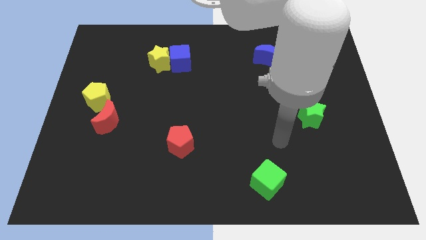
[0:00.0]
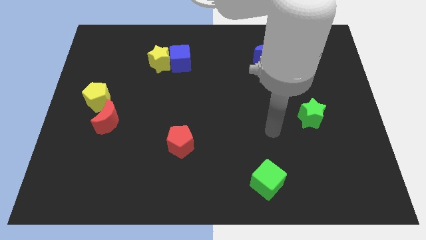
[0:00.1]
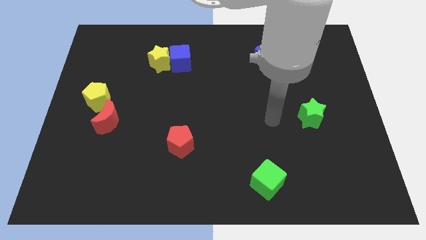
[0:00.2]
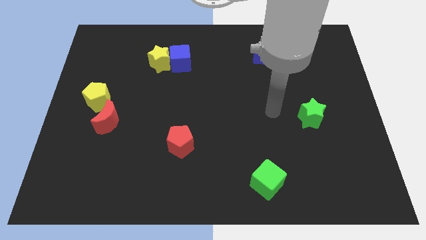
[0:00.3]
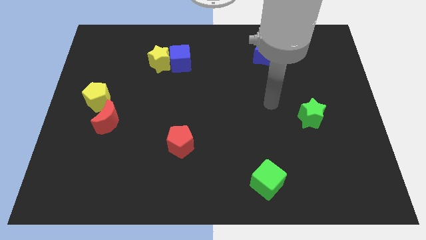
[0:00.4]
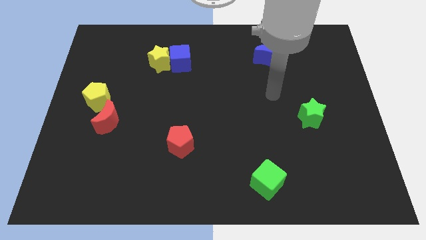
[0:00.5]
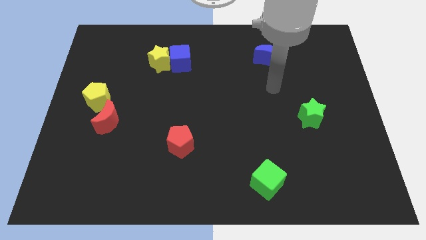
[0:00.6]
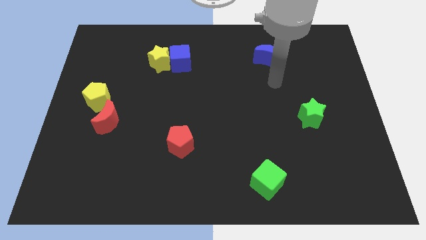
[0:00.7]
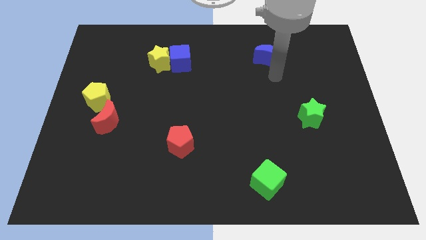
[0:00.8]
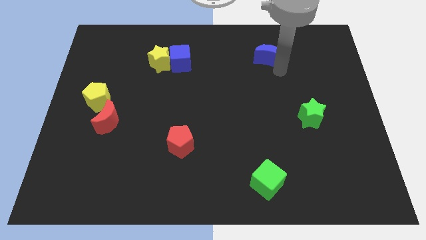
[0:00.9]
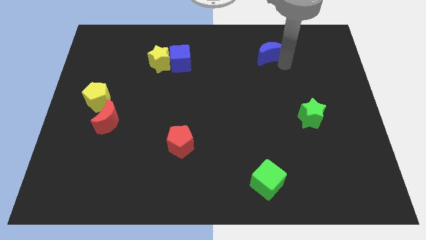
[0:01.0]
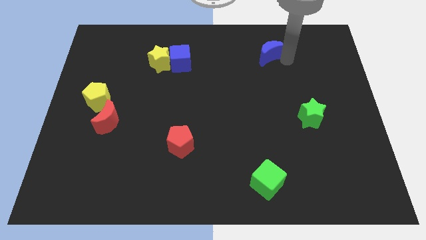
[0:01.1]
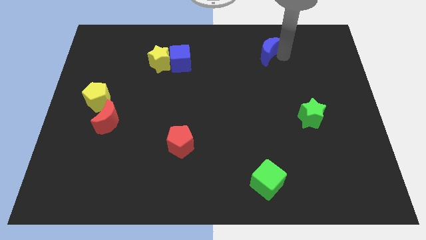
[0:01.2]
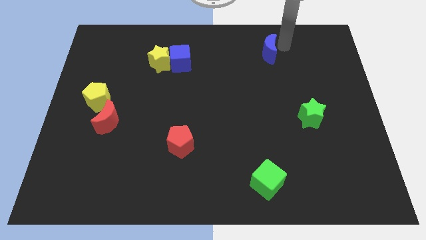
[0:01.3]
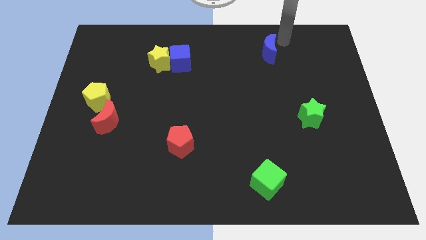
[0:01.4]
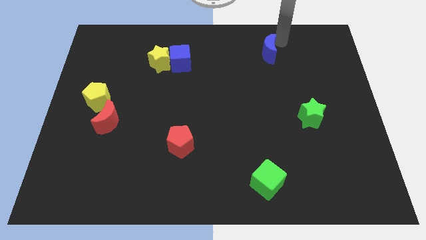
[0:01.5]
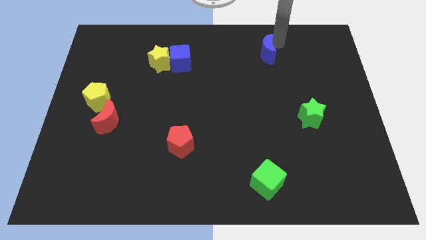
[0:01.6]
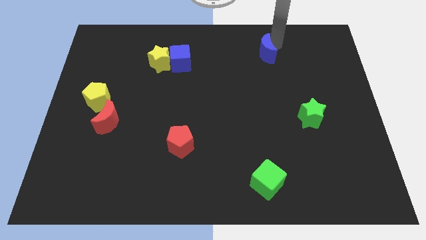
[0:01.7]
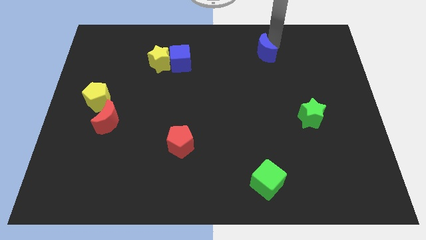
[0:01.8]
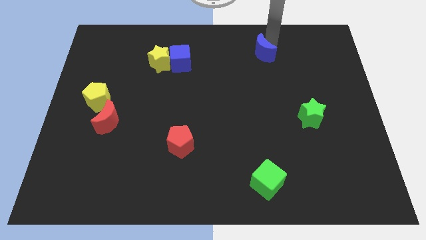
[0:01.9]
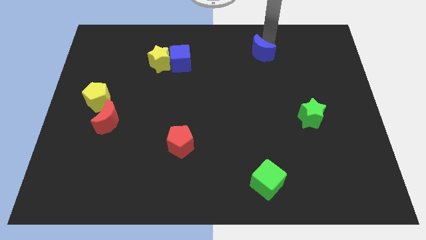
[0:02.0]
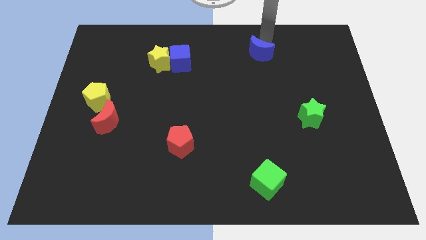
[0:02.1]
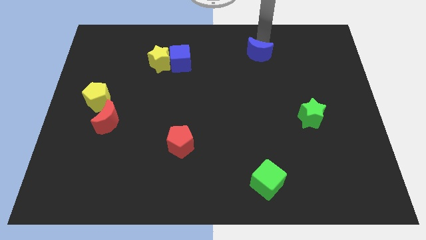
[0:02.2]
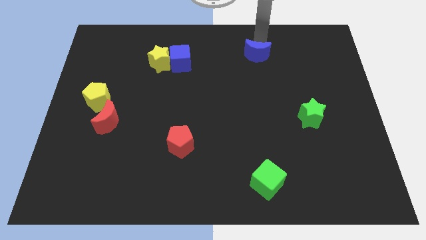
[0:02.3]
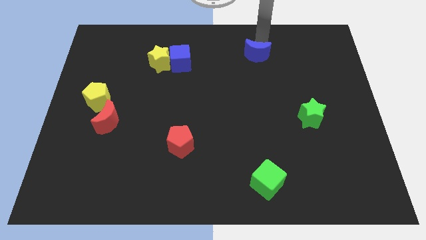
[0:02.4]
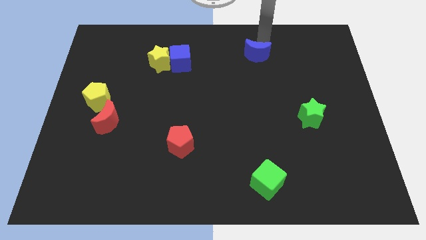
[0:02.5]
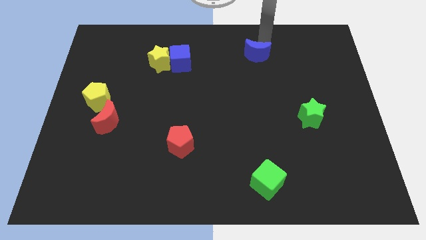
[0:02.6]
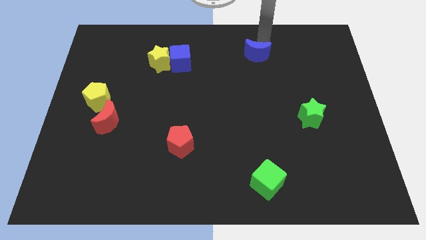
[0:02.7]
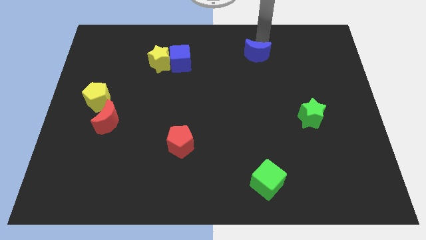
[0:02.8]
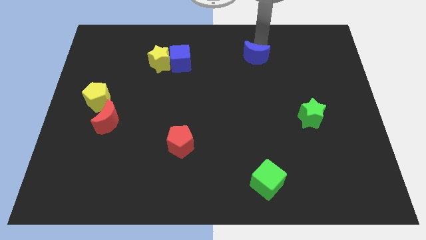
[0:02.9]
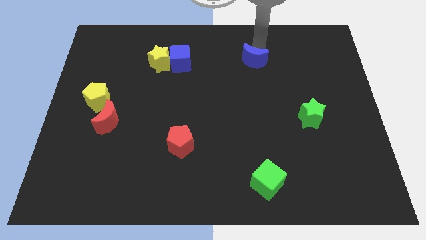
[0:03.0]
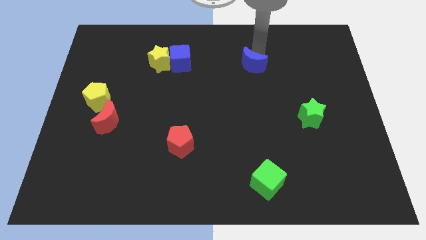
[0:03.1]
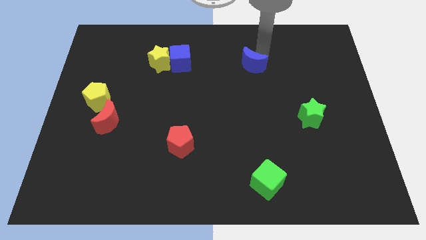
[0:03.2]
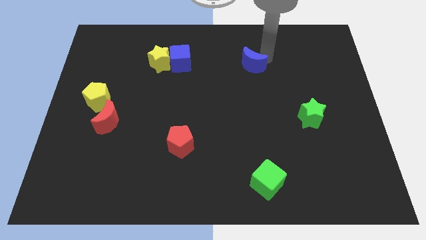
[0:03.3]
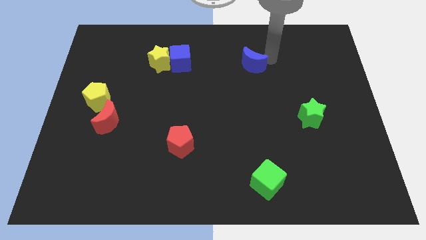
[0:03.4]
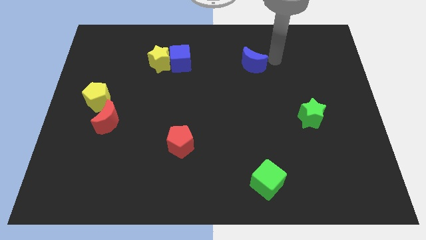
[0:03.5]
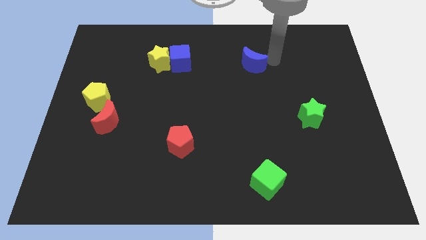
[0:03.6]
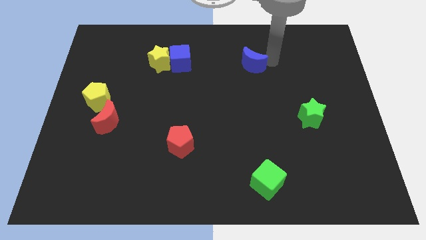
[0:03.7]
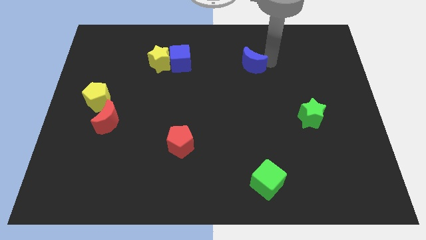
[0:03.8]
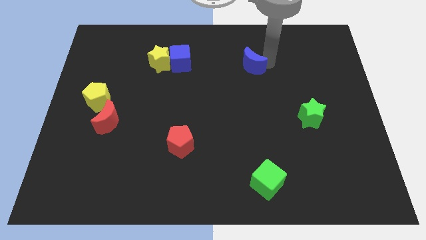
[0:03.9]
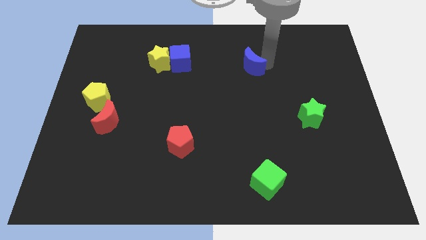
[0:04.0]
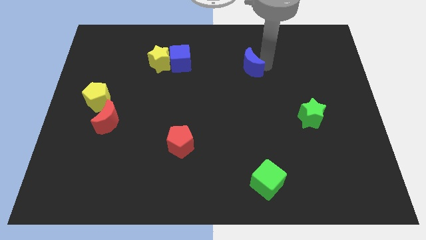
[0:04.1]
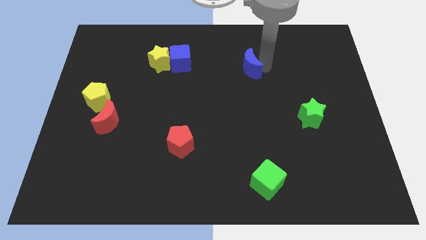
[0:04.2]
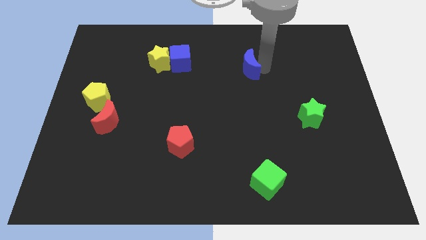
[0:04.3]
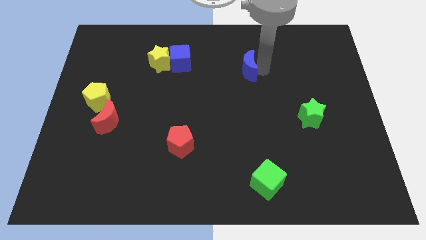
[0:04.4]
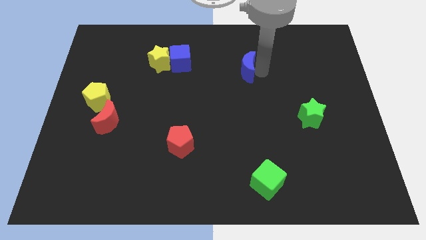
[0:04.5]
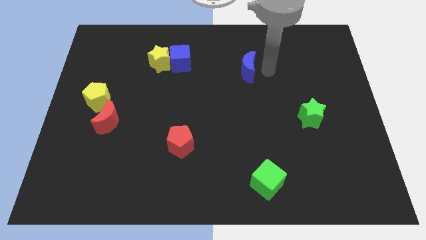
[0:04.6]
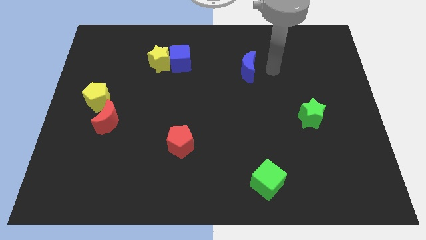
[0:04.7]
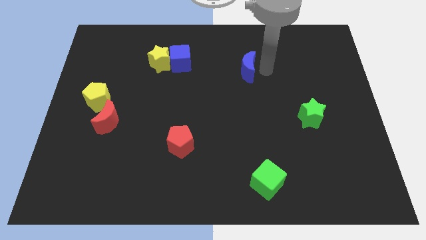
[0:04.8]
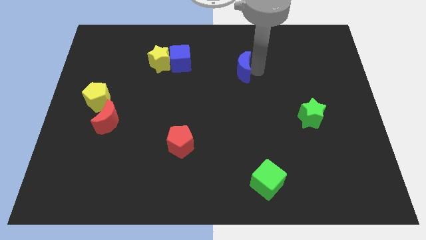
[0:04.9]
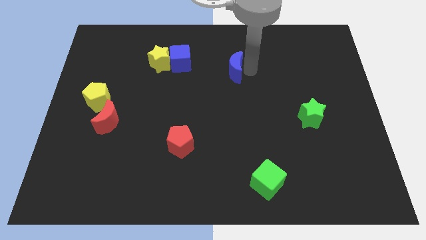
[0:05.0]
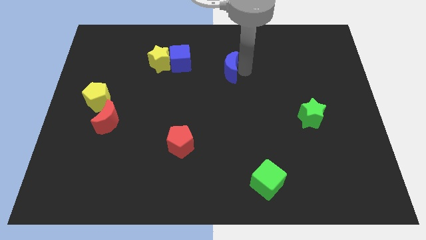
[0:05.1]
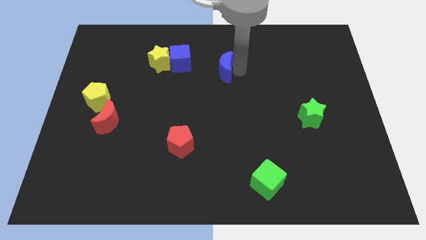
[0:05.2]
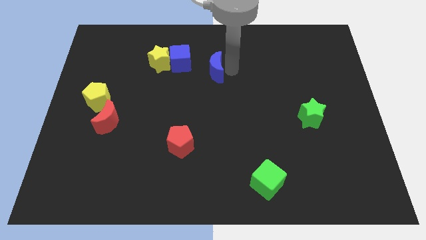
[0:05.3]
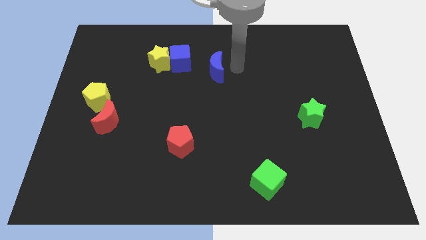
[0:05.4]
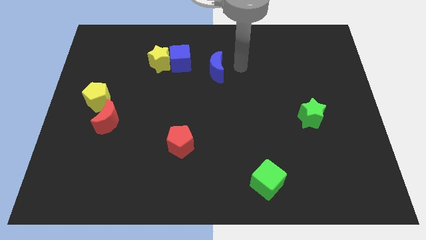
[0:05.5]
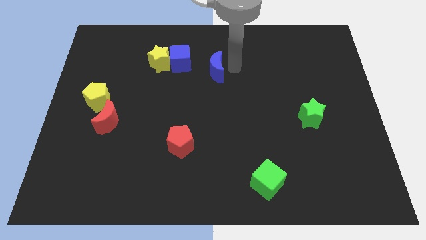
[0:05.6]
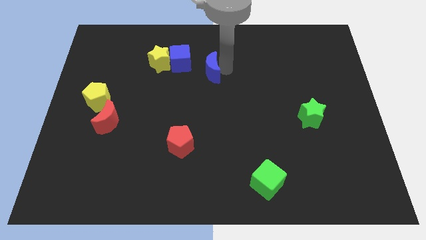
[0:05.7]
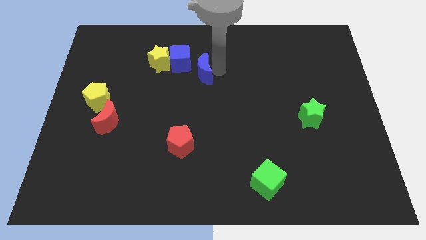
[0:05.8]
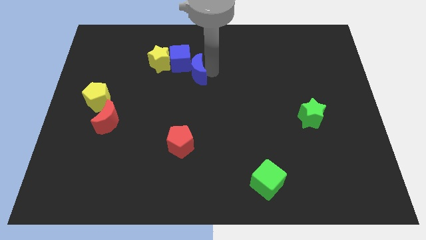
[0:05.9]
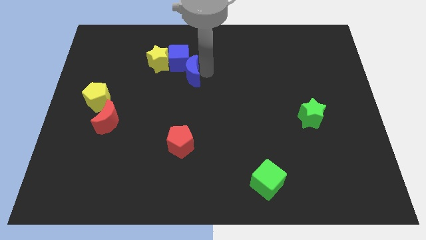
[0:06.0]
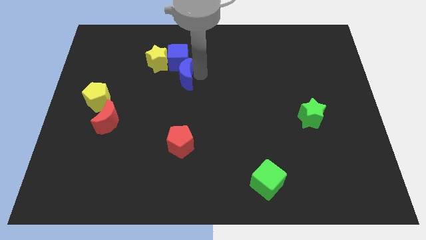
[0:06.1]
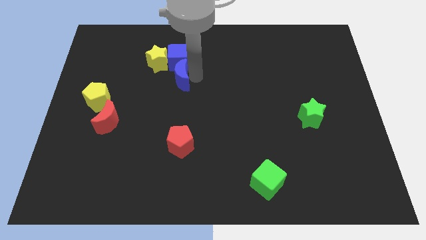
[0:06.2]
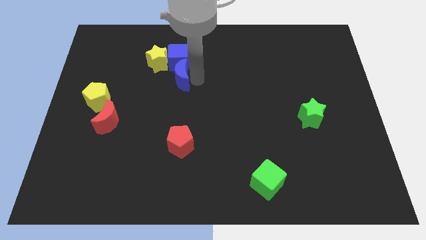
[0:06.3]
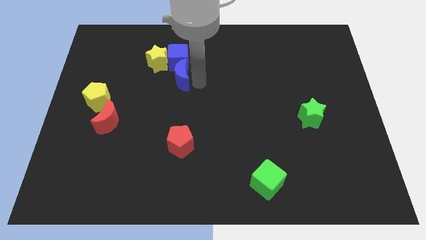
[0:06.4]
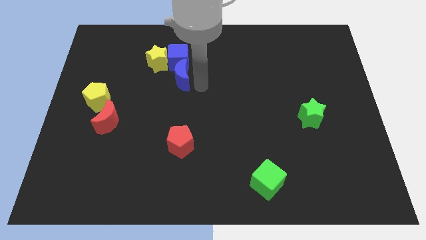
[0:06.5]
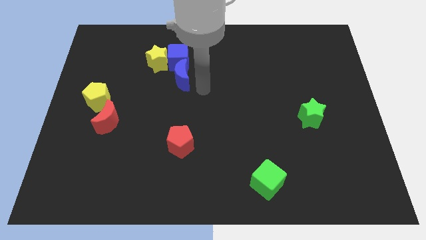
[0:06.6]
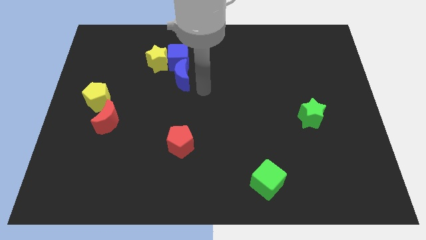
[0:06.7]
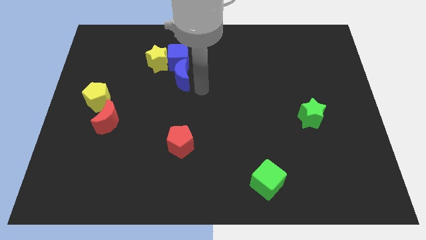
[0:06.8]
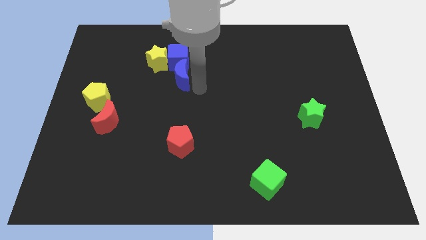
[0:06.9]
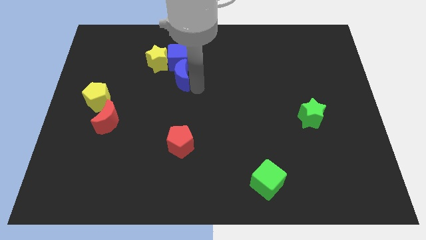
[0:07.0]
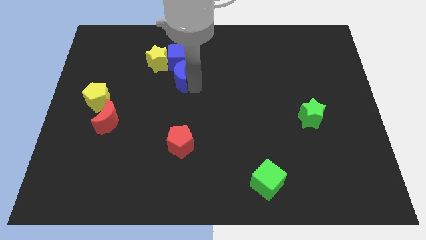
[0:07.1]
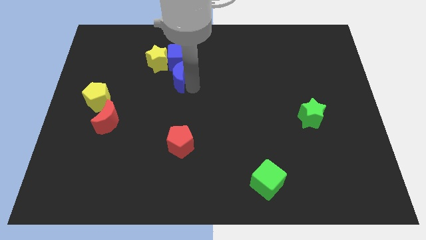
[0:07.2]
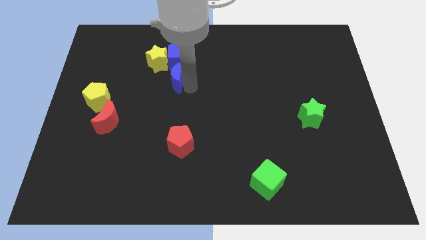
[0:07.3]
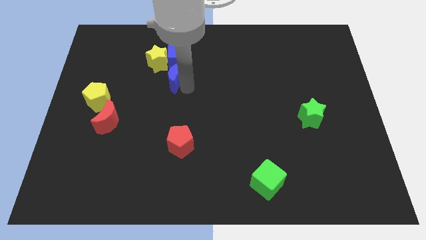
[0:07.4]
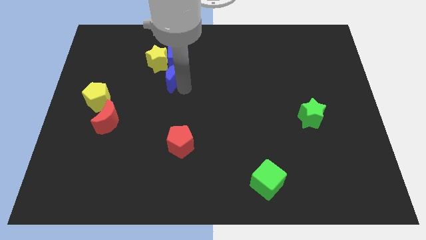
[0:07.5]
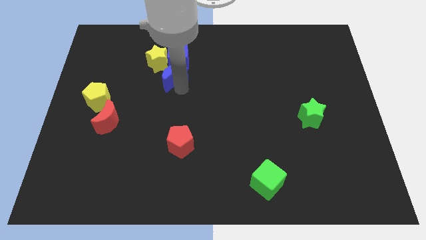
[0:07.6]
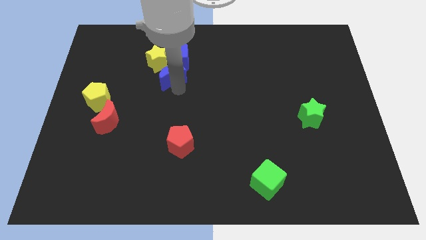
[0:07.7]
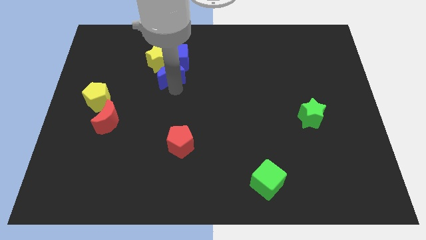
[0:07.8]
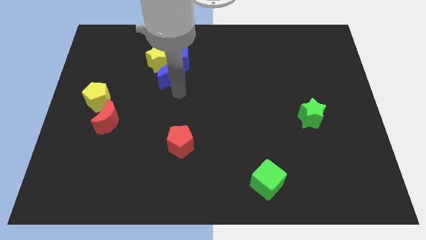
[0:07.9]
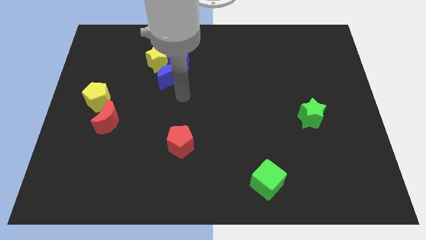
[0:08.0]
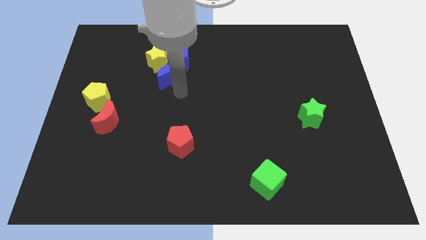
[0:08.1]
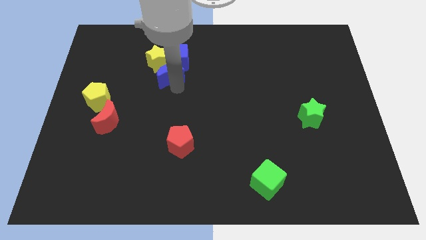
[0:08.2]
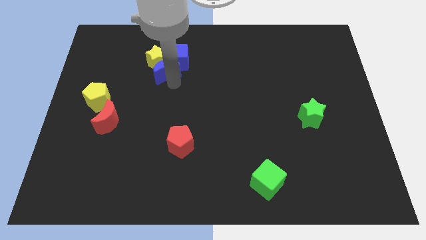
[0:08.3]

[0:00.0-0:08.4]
move the blue moon towards the yellow star
